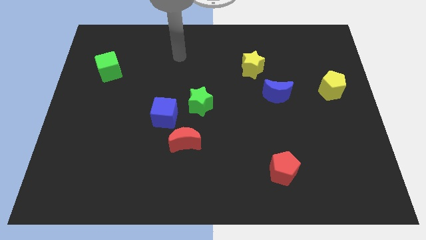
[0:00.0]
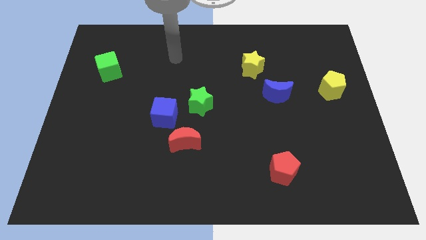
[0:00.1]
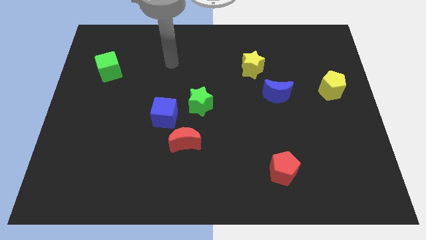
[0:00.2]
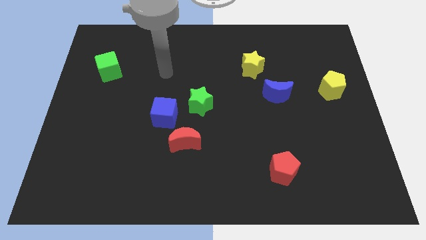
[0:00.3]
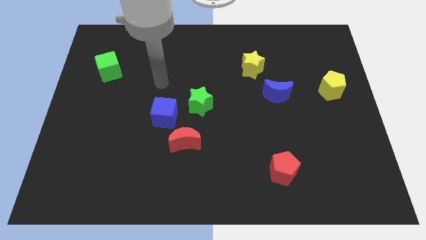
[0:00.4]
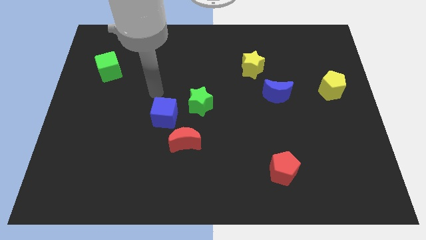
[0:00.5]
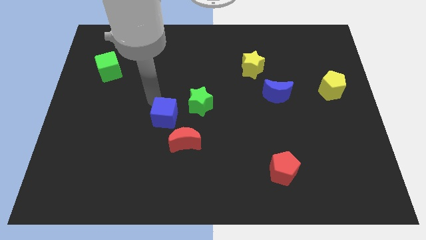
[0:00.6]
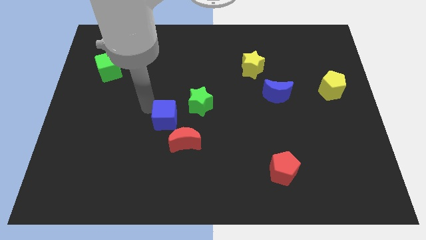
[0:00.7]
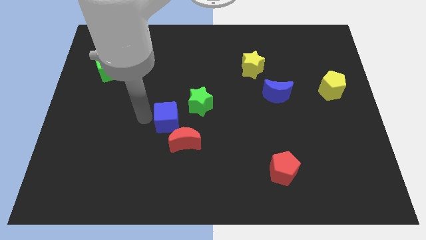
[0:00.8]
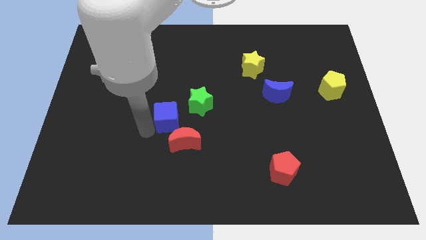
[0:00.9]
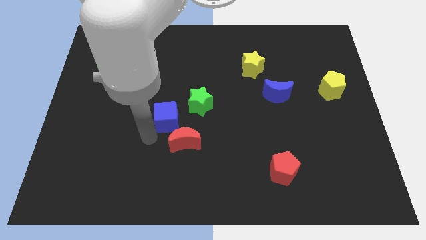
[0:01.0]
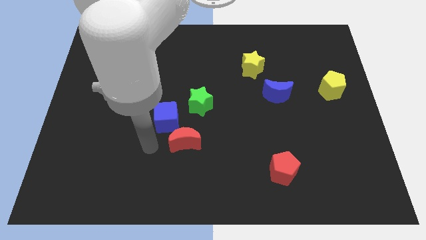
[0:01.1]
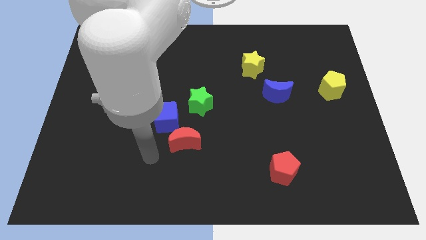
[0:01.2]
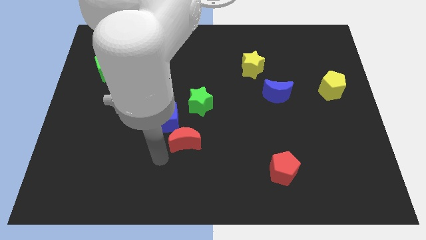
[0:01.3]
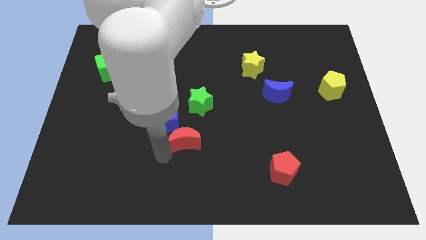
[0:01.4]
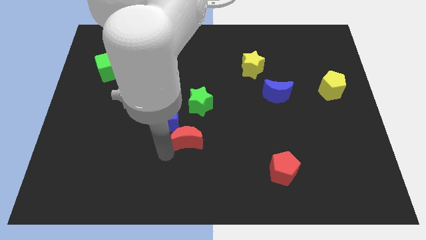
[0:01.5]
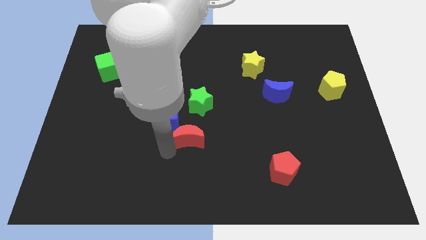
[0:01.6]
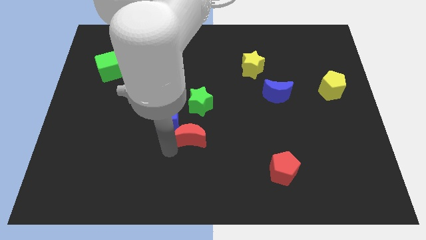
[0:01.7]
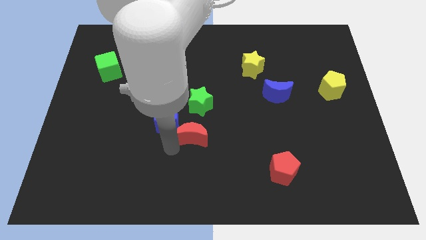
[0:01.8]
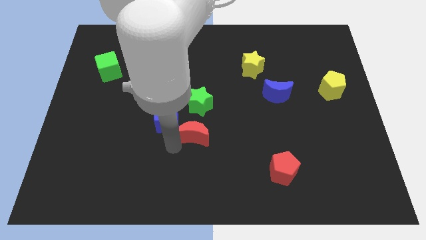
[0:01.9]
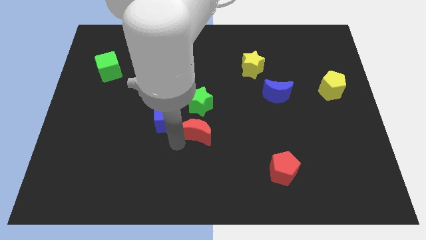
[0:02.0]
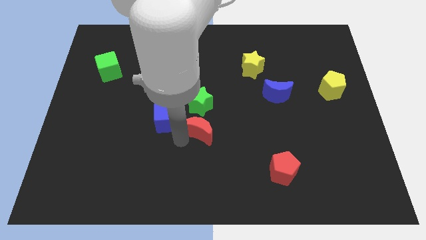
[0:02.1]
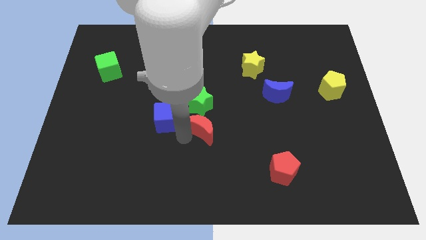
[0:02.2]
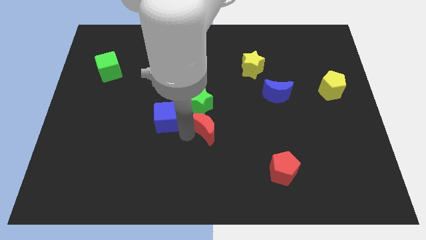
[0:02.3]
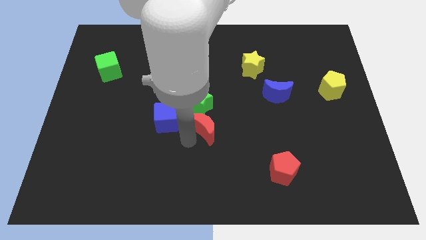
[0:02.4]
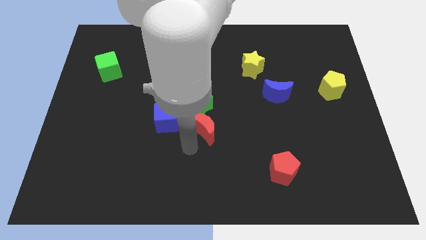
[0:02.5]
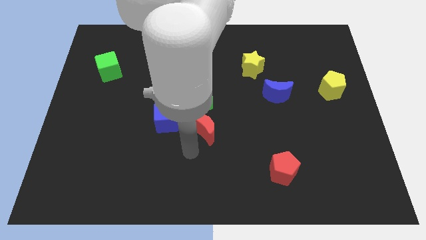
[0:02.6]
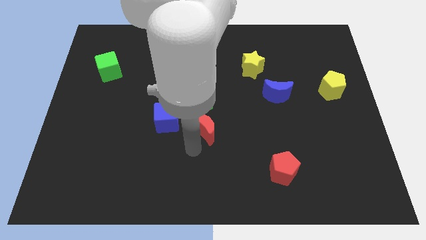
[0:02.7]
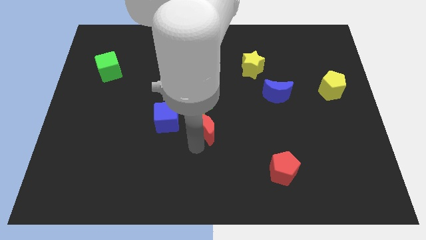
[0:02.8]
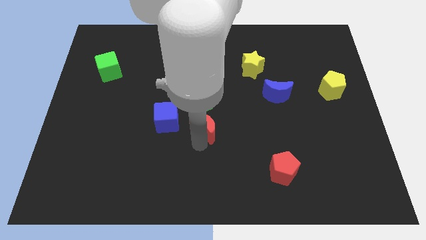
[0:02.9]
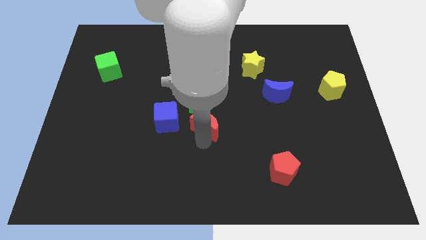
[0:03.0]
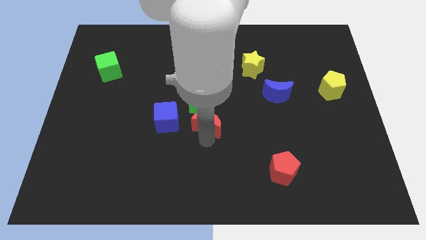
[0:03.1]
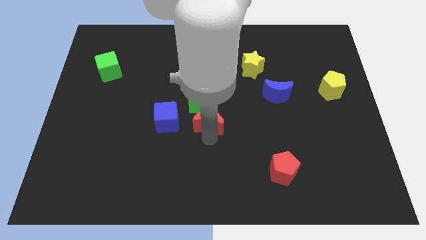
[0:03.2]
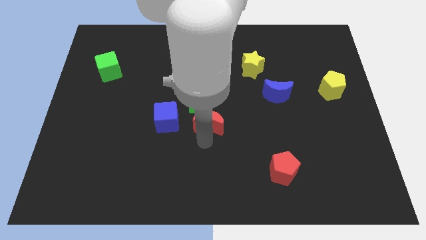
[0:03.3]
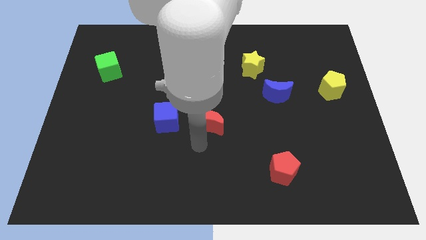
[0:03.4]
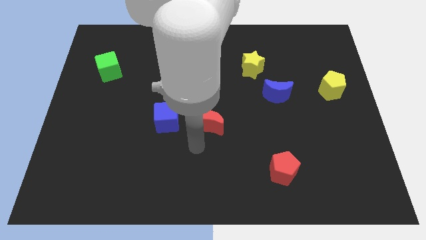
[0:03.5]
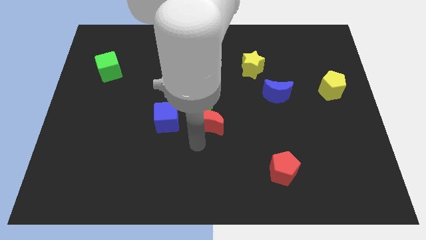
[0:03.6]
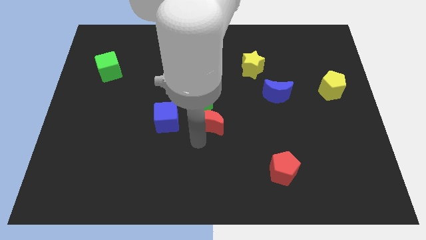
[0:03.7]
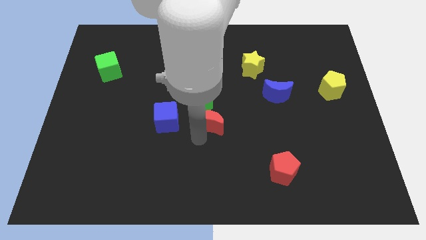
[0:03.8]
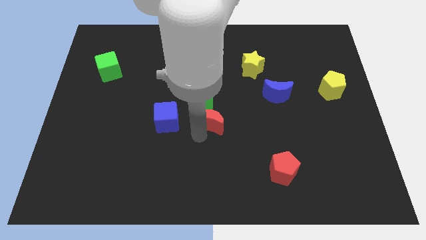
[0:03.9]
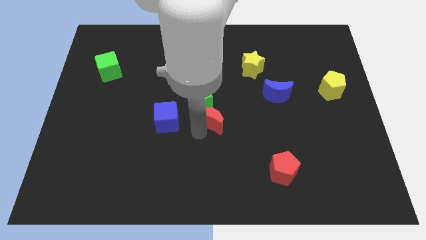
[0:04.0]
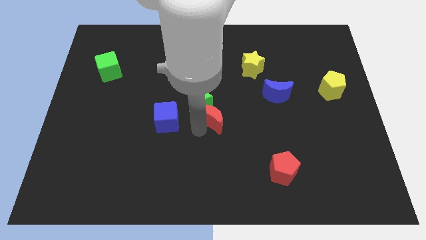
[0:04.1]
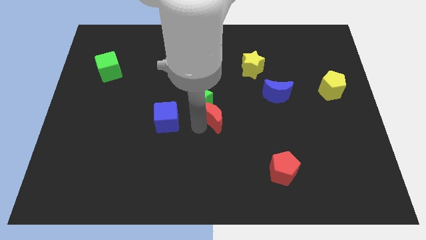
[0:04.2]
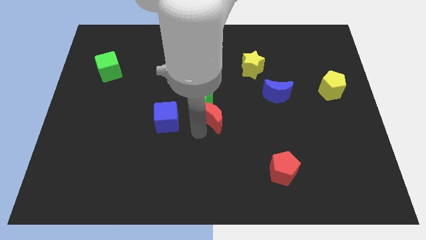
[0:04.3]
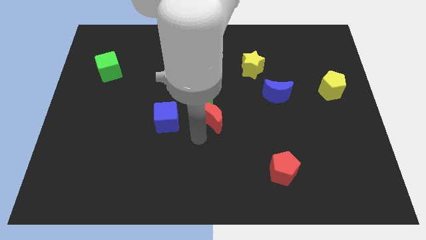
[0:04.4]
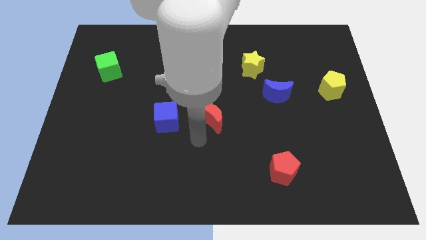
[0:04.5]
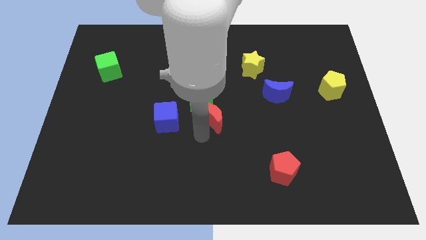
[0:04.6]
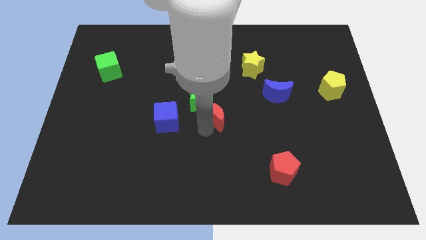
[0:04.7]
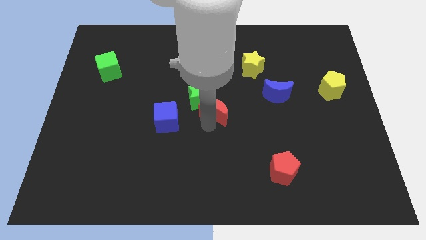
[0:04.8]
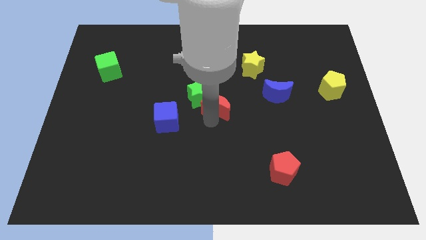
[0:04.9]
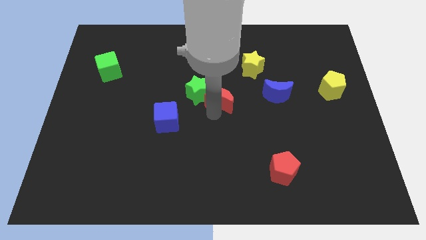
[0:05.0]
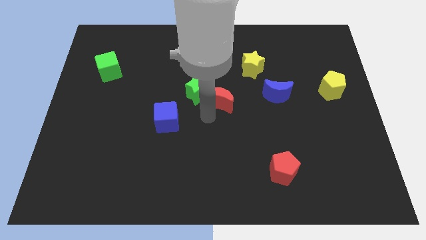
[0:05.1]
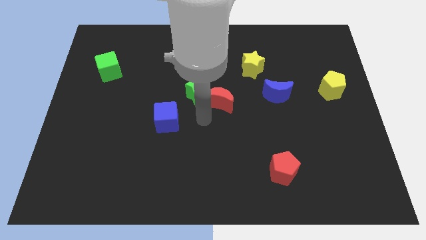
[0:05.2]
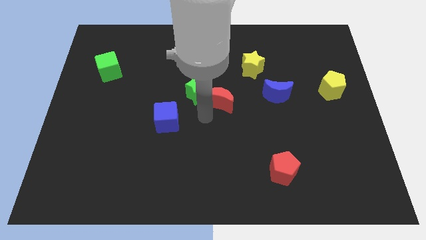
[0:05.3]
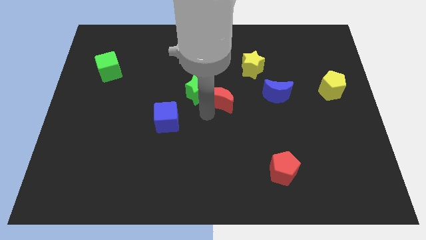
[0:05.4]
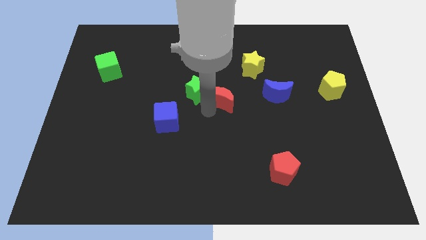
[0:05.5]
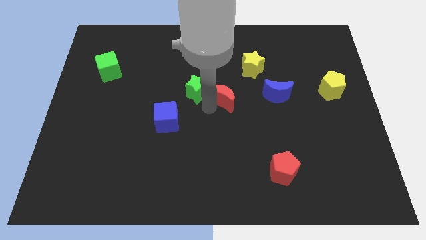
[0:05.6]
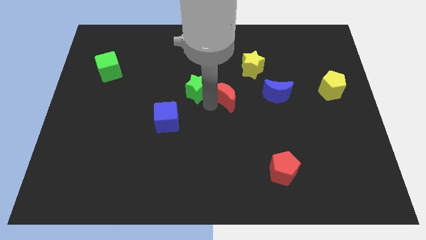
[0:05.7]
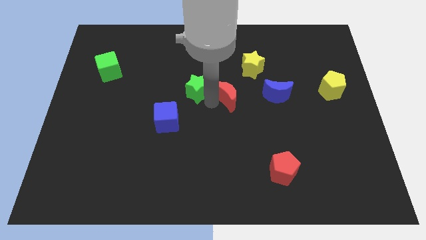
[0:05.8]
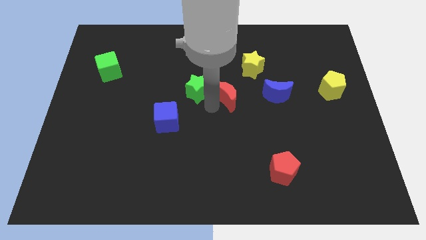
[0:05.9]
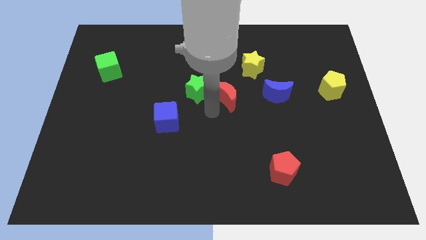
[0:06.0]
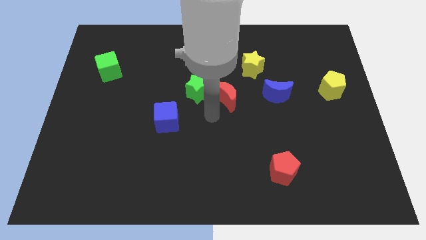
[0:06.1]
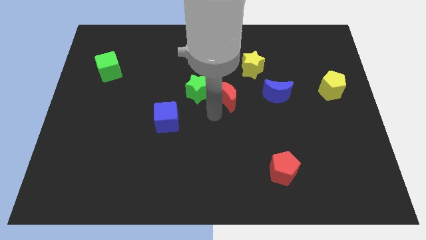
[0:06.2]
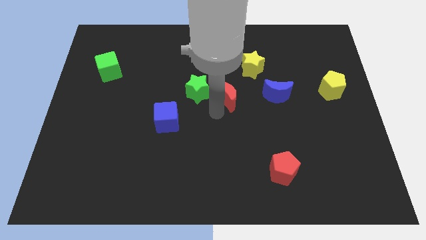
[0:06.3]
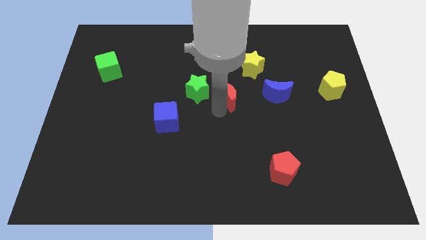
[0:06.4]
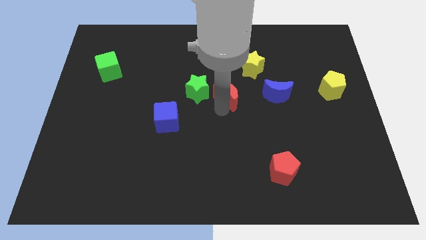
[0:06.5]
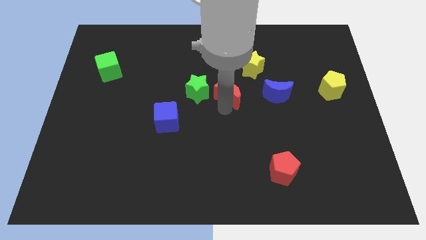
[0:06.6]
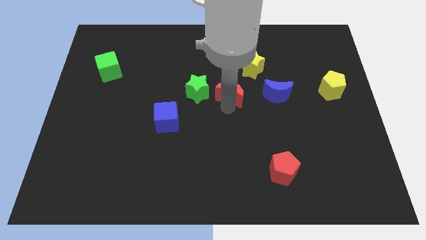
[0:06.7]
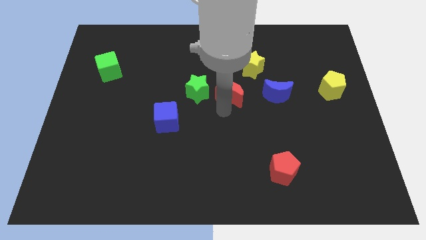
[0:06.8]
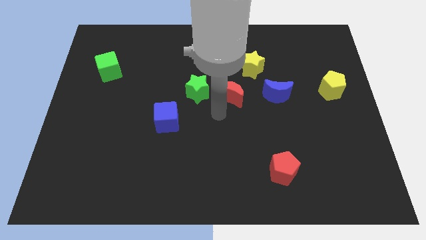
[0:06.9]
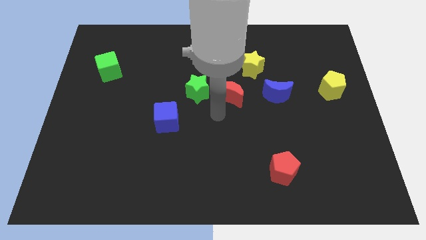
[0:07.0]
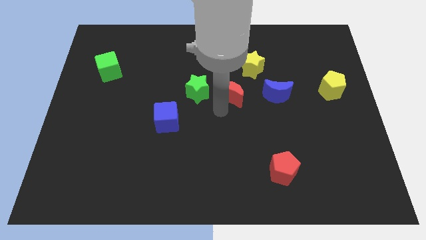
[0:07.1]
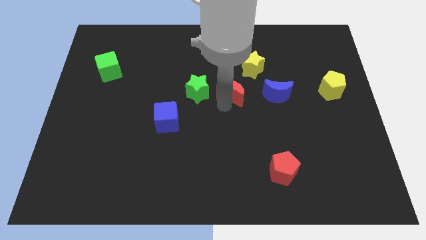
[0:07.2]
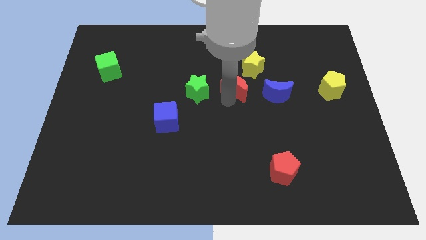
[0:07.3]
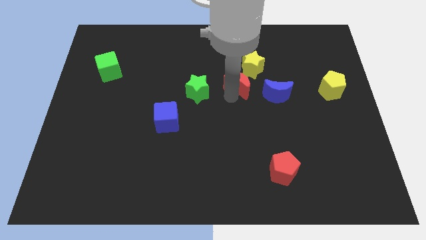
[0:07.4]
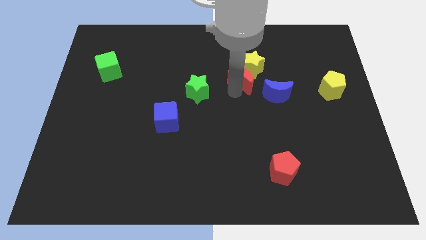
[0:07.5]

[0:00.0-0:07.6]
slide the red moon to the yellow star
